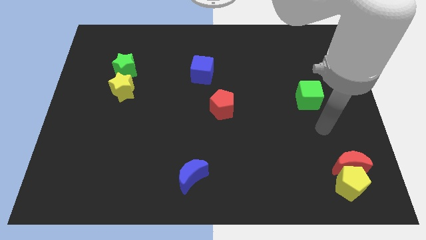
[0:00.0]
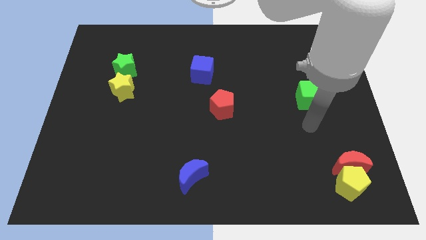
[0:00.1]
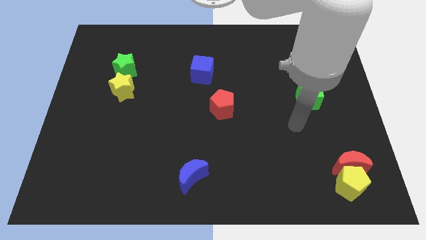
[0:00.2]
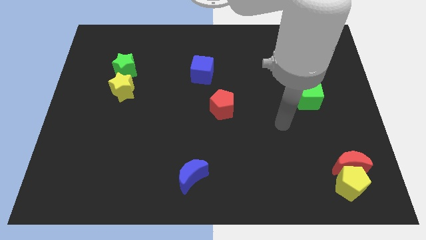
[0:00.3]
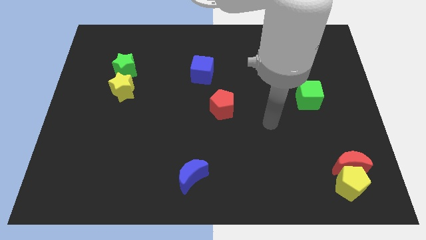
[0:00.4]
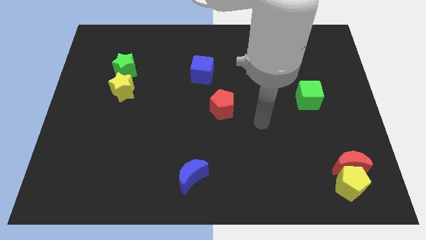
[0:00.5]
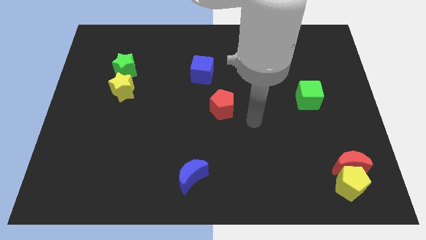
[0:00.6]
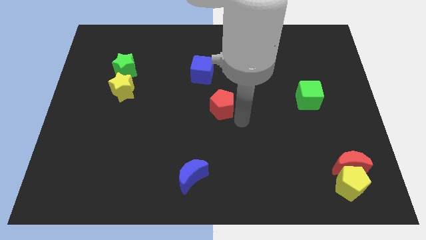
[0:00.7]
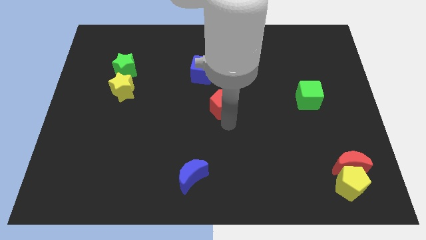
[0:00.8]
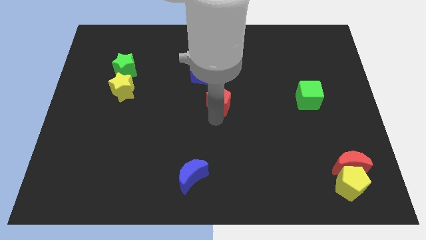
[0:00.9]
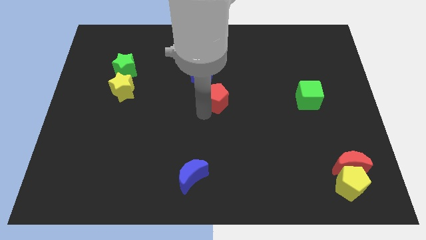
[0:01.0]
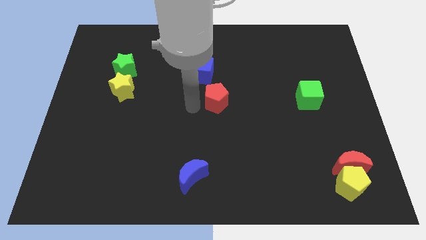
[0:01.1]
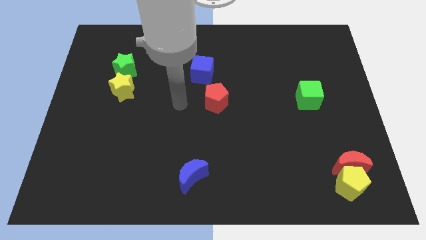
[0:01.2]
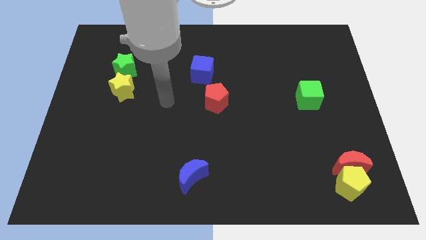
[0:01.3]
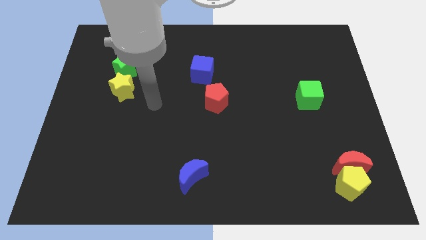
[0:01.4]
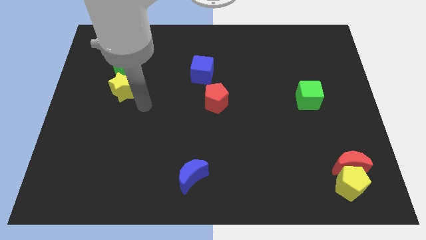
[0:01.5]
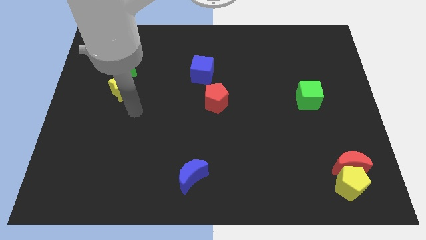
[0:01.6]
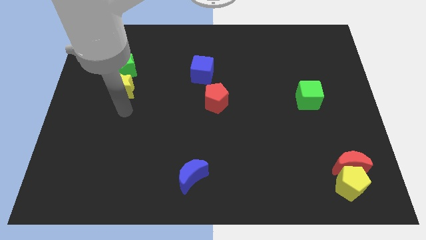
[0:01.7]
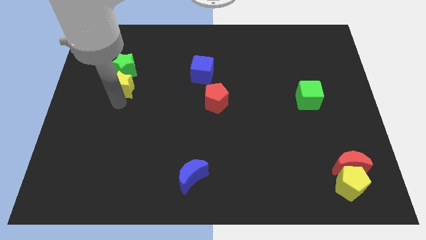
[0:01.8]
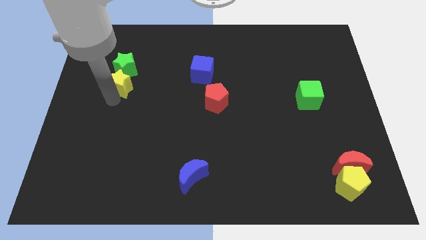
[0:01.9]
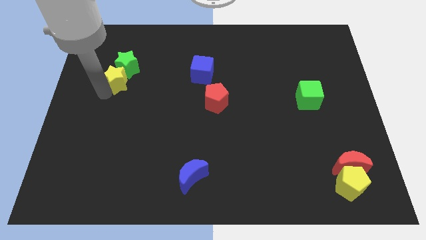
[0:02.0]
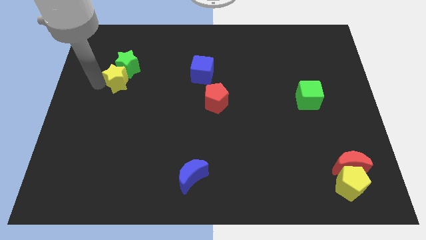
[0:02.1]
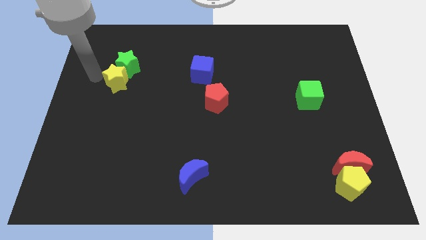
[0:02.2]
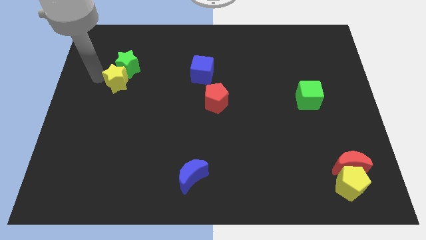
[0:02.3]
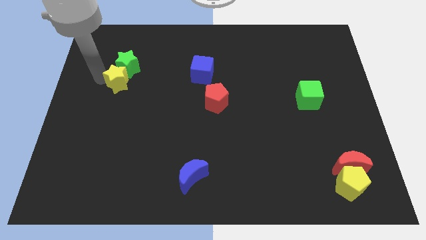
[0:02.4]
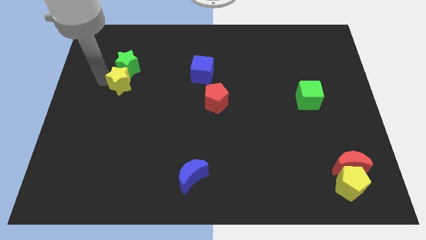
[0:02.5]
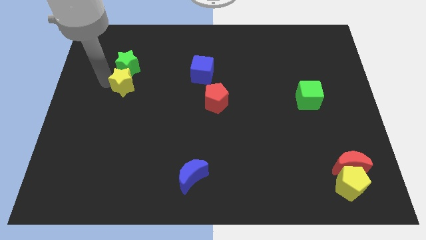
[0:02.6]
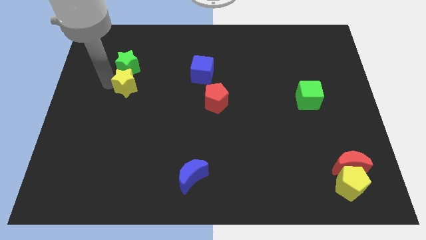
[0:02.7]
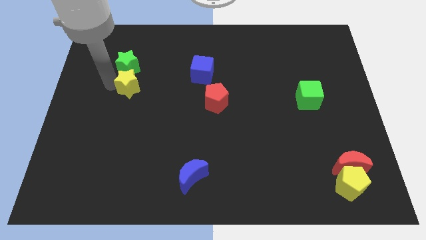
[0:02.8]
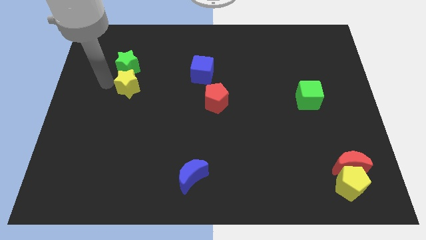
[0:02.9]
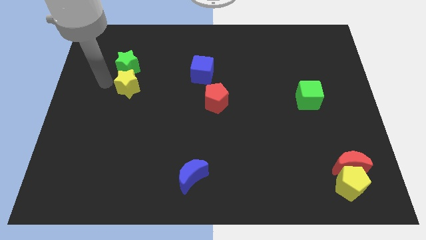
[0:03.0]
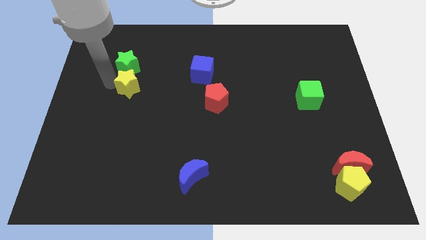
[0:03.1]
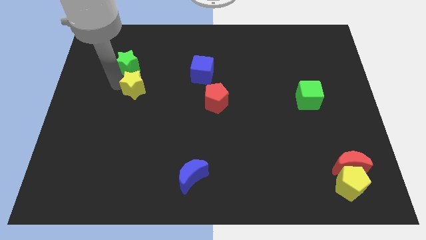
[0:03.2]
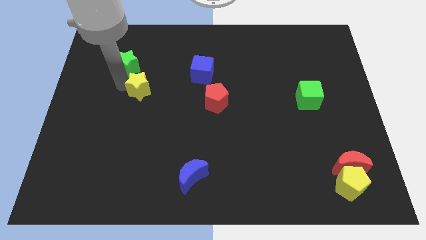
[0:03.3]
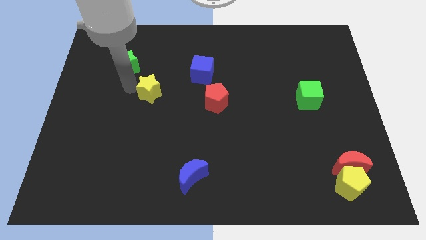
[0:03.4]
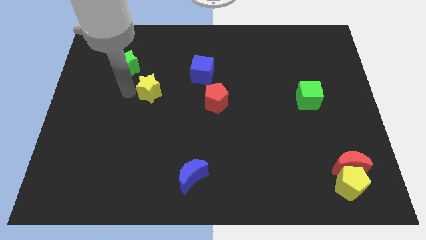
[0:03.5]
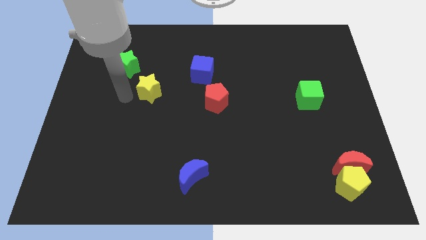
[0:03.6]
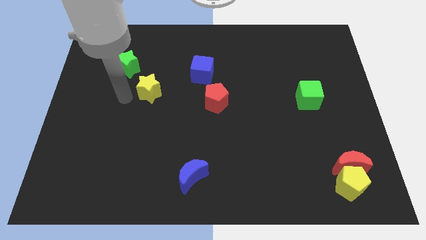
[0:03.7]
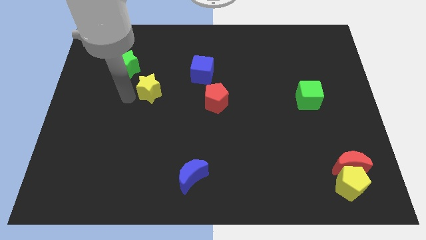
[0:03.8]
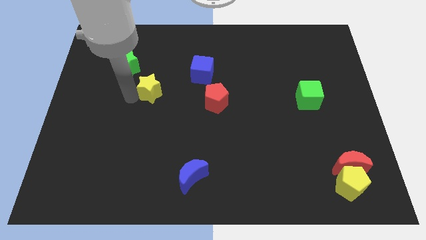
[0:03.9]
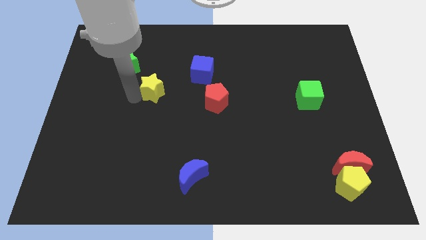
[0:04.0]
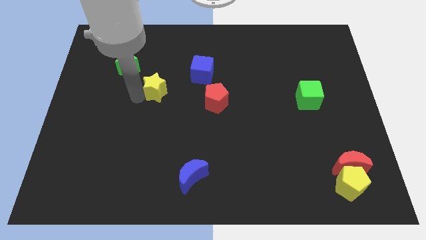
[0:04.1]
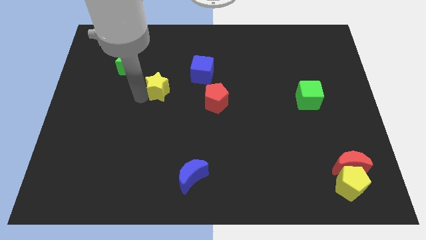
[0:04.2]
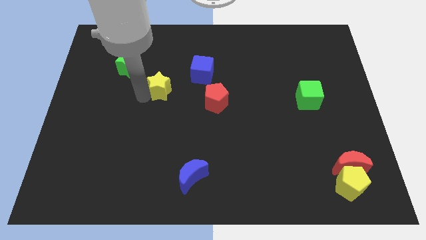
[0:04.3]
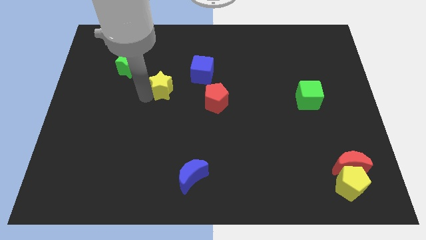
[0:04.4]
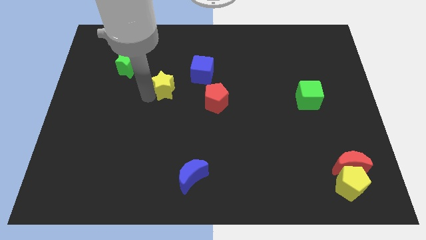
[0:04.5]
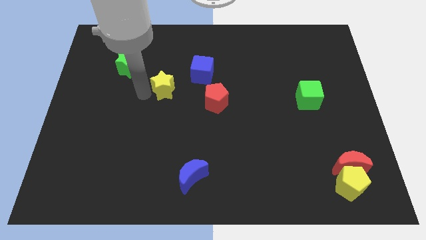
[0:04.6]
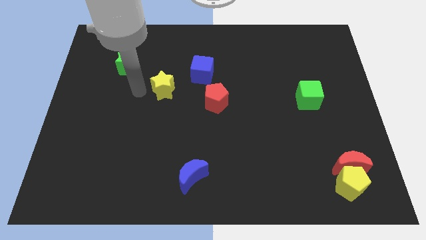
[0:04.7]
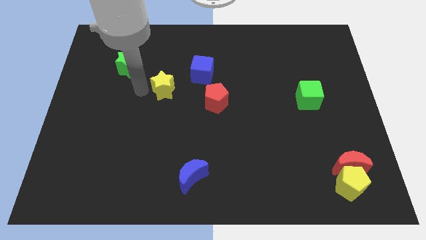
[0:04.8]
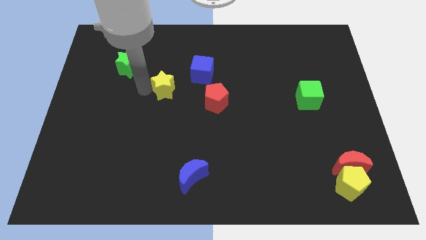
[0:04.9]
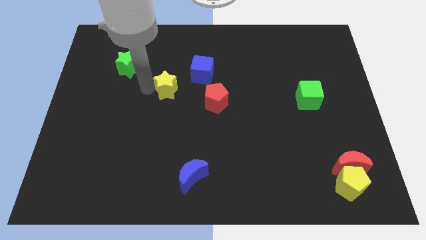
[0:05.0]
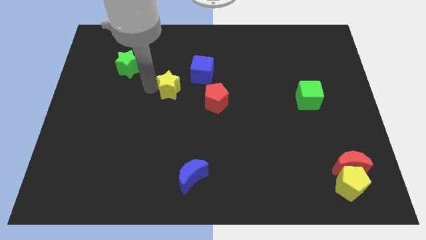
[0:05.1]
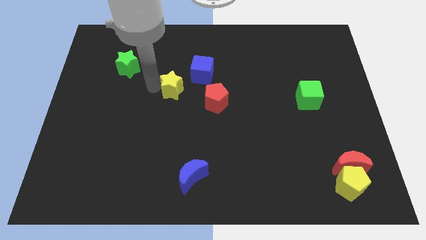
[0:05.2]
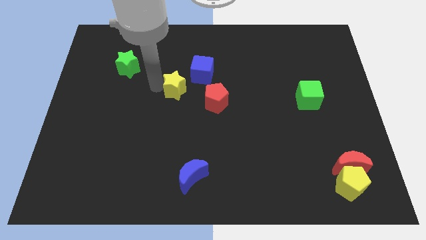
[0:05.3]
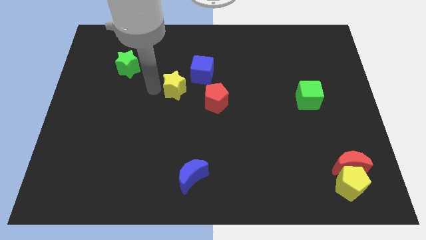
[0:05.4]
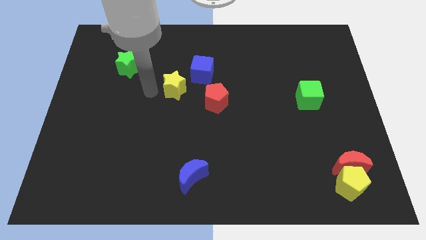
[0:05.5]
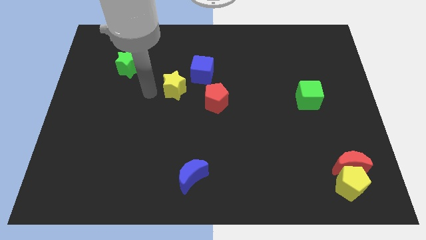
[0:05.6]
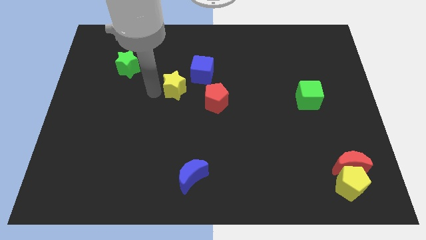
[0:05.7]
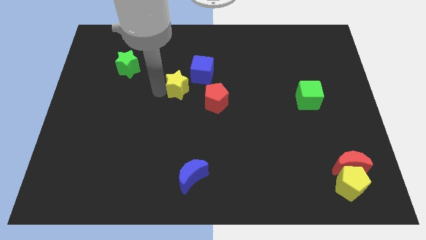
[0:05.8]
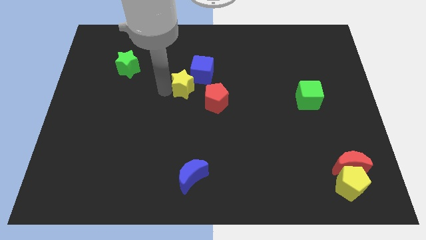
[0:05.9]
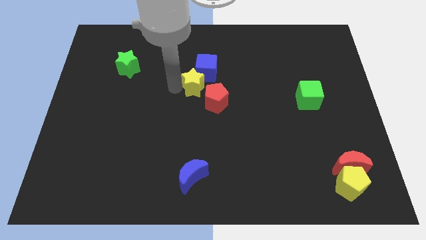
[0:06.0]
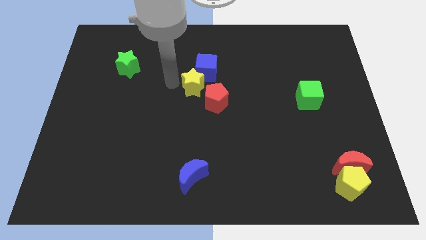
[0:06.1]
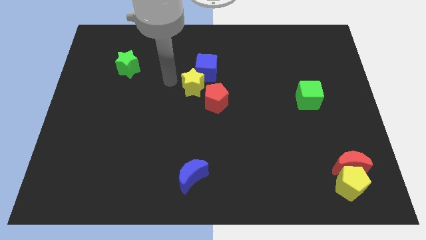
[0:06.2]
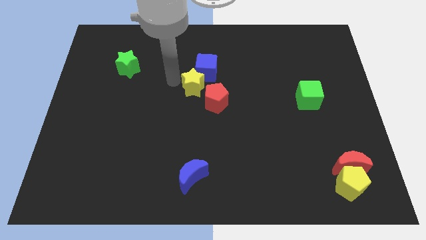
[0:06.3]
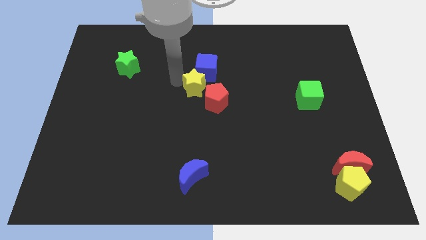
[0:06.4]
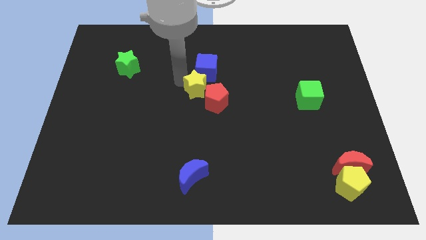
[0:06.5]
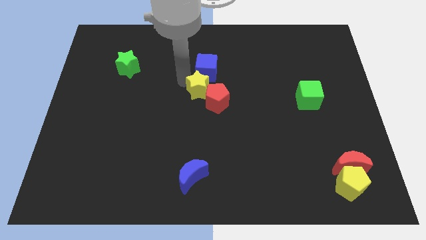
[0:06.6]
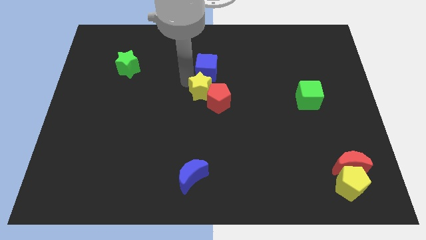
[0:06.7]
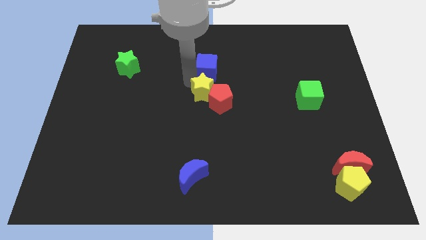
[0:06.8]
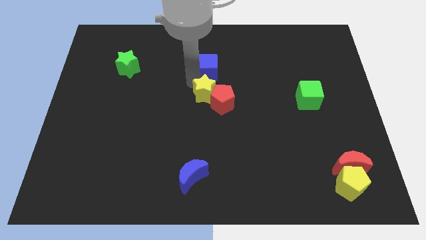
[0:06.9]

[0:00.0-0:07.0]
move the yellow star to the right

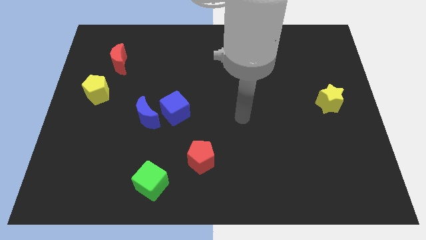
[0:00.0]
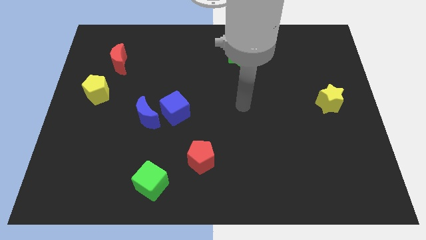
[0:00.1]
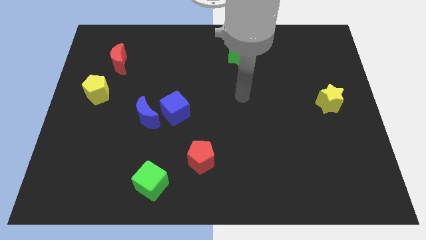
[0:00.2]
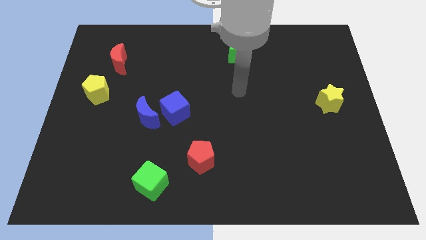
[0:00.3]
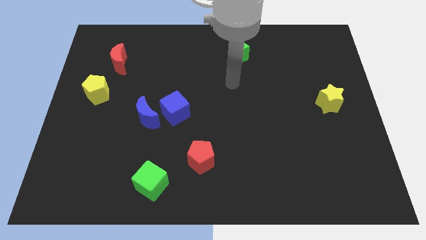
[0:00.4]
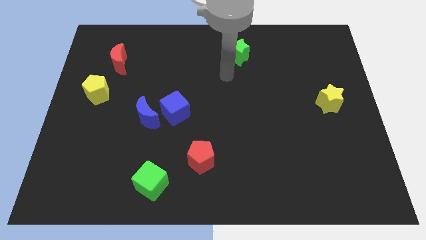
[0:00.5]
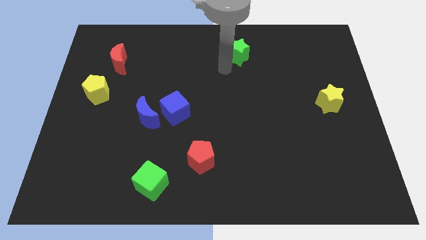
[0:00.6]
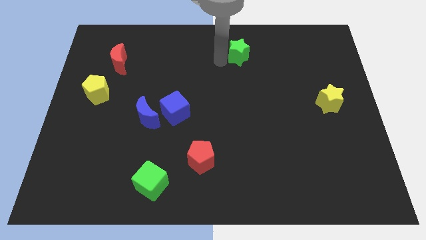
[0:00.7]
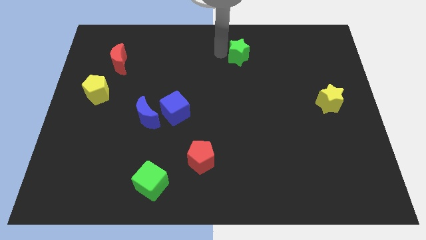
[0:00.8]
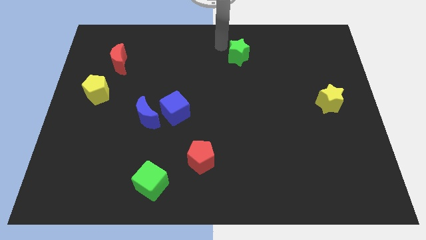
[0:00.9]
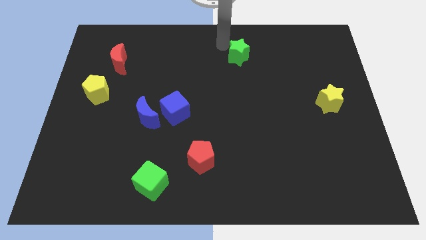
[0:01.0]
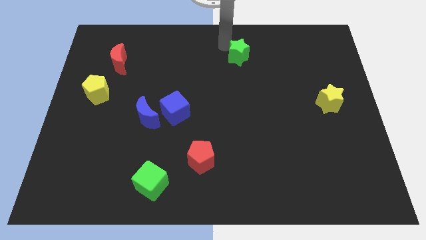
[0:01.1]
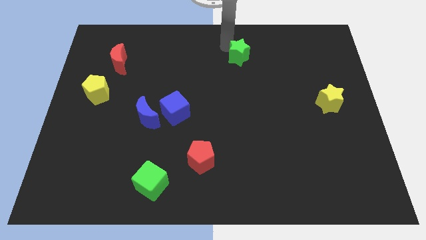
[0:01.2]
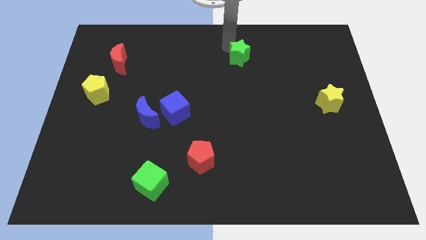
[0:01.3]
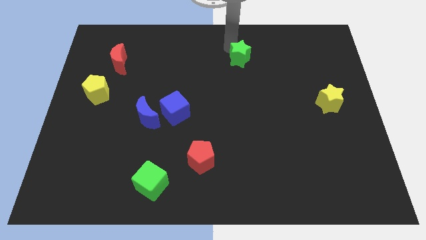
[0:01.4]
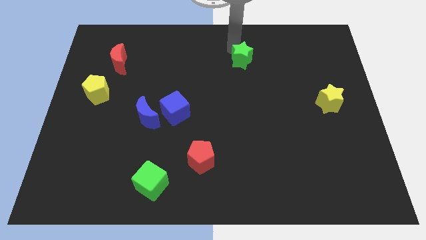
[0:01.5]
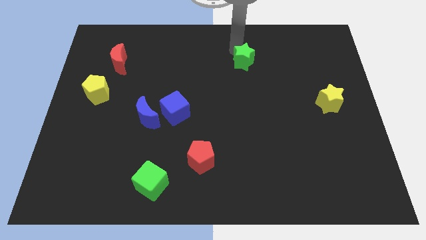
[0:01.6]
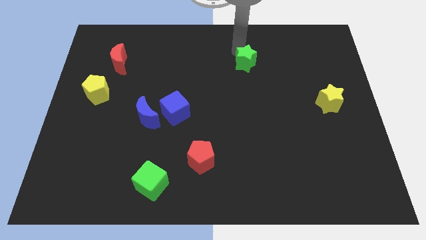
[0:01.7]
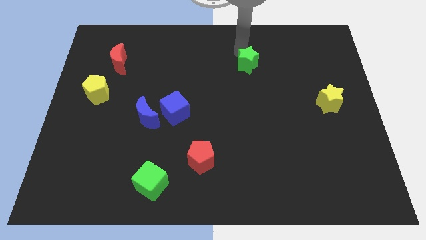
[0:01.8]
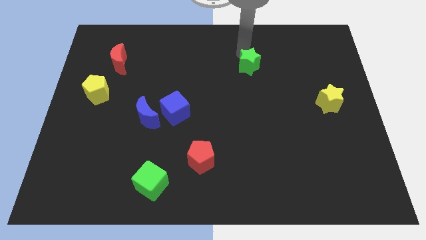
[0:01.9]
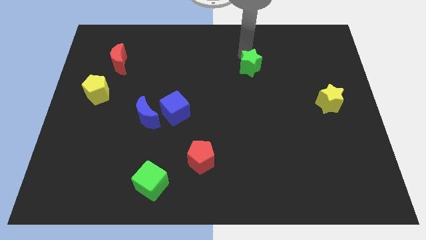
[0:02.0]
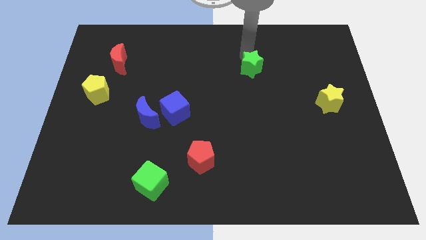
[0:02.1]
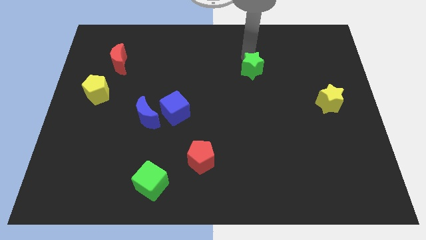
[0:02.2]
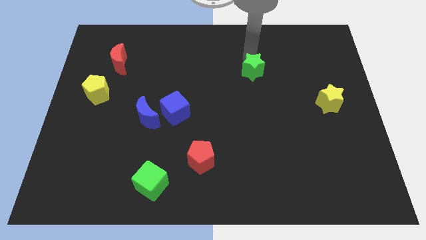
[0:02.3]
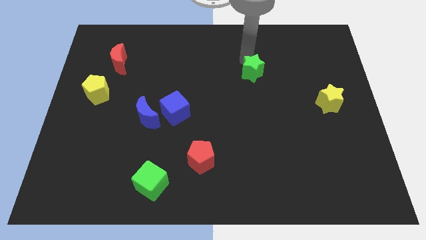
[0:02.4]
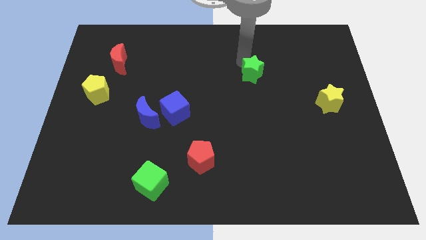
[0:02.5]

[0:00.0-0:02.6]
push the green star a little downwards and right diagonally
